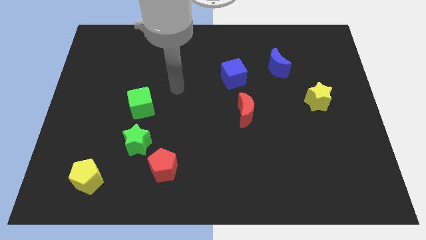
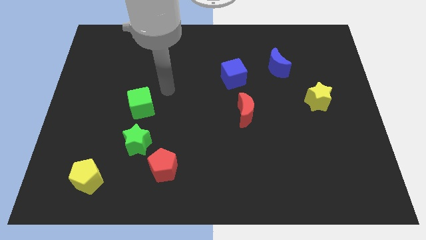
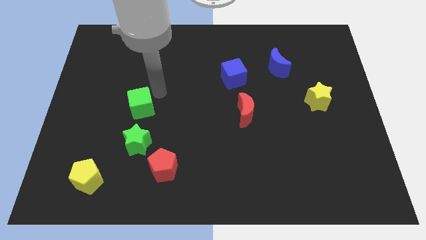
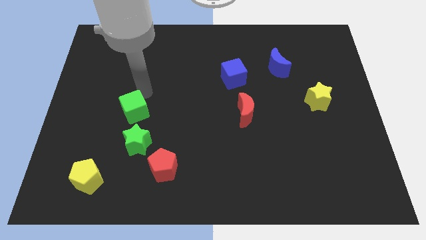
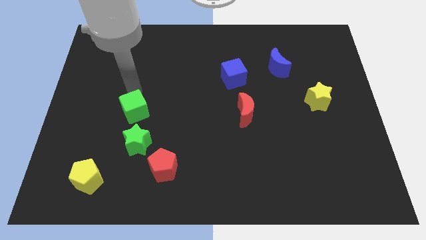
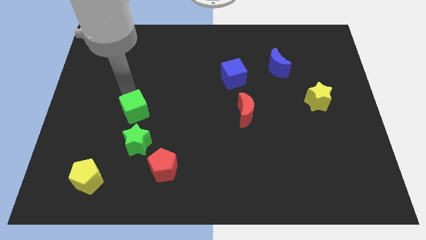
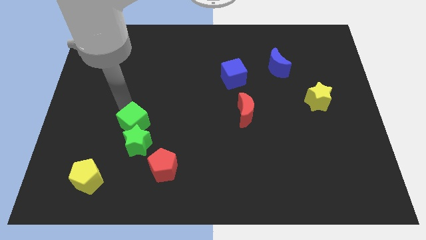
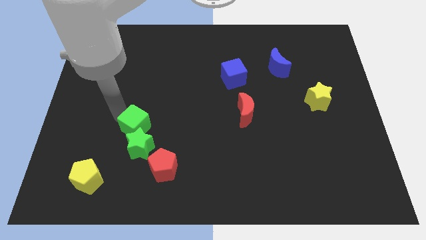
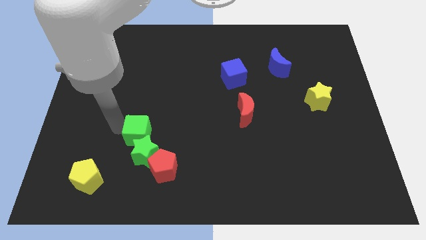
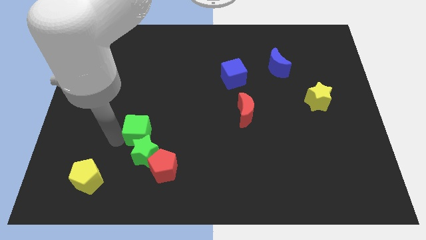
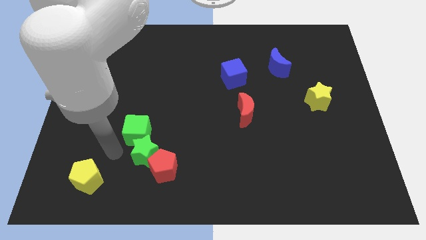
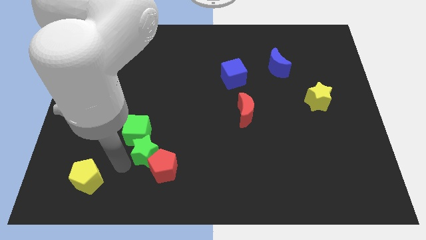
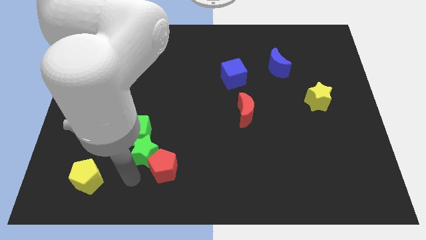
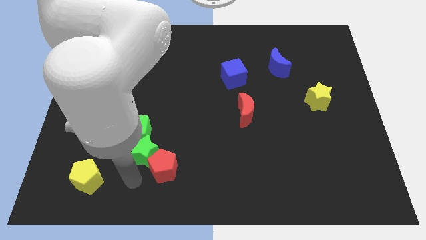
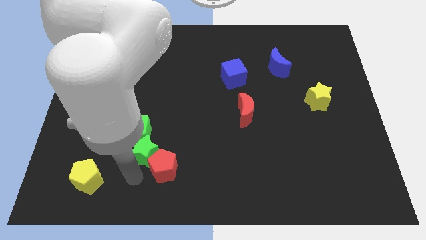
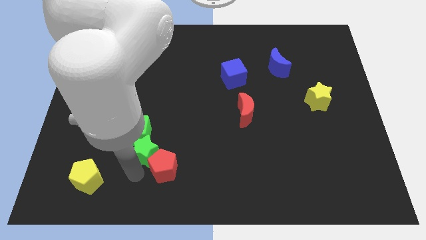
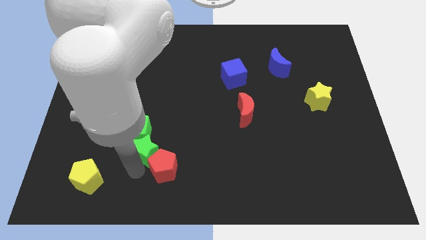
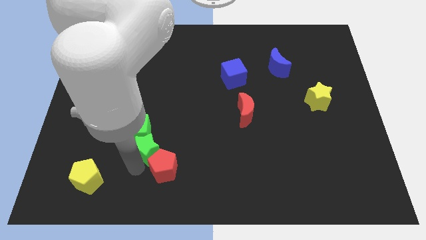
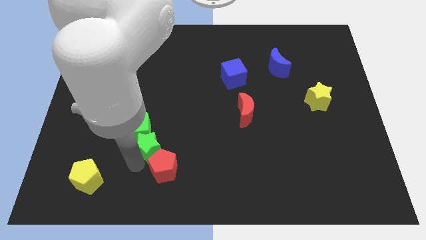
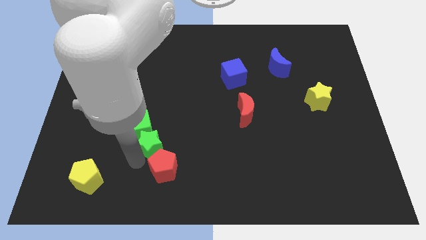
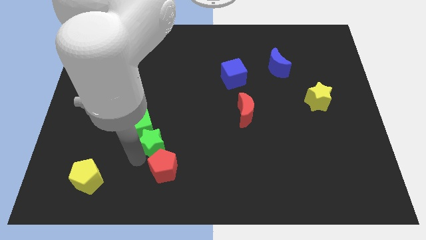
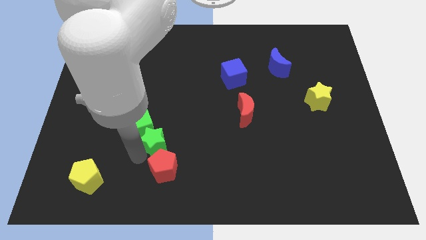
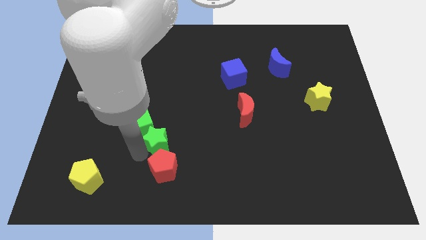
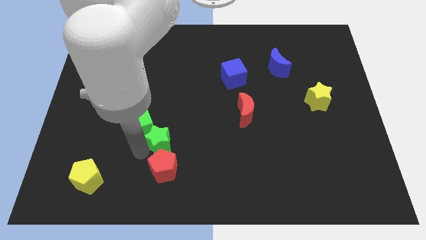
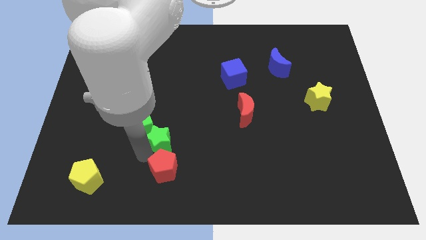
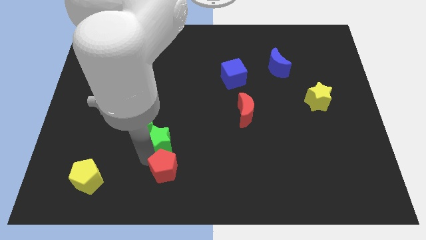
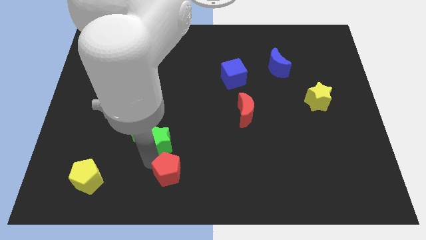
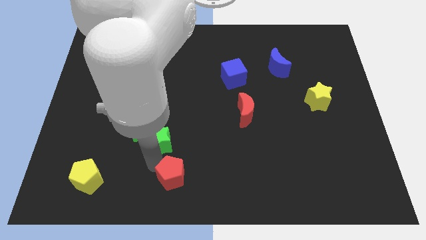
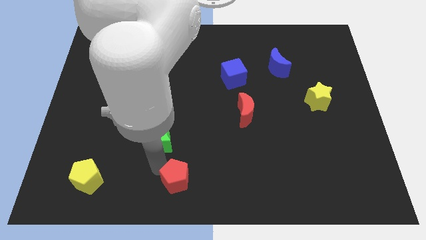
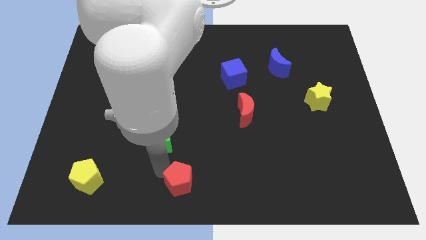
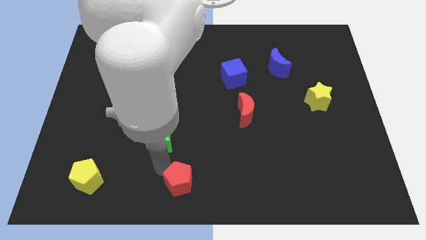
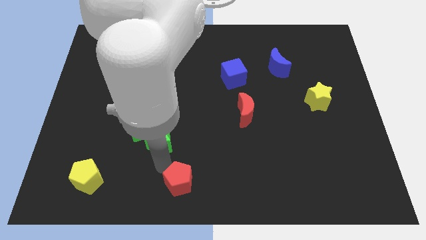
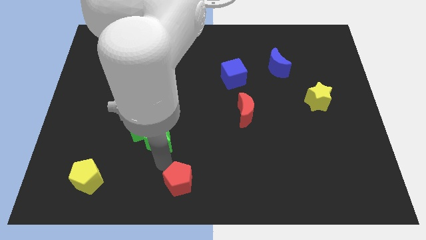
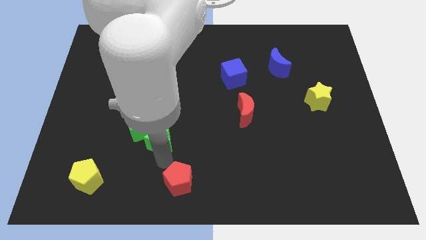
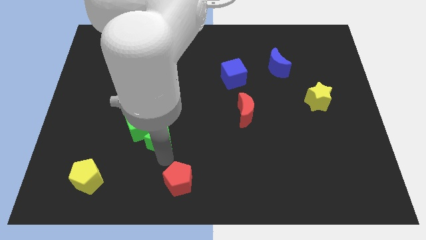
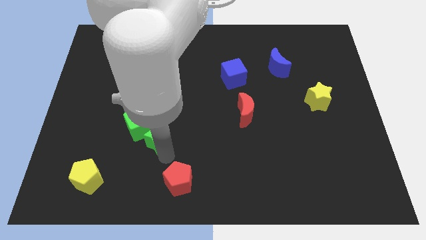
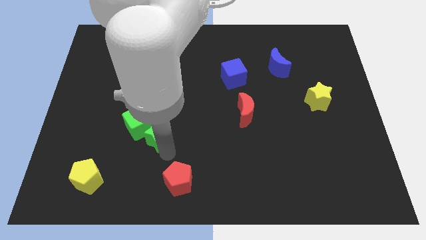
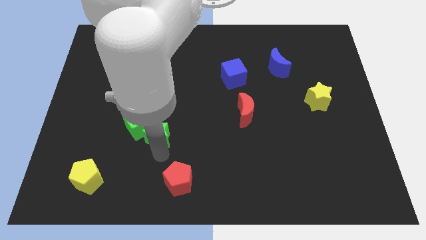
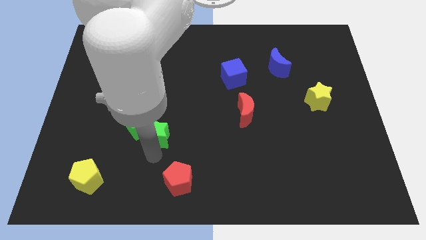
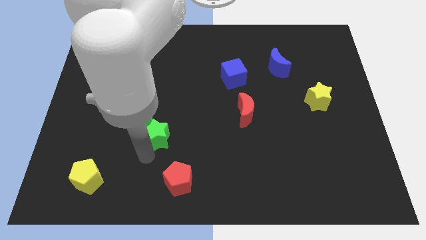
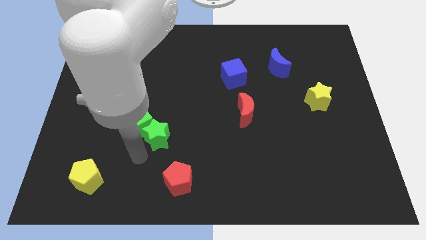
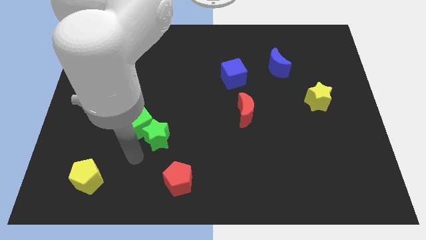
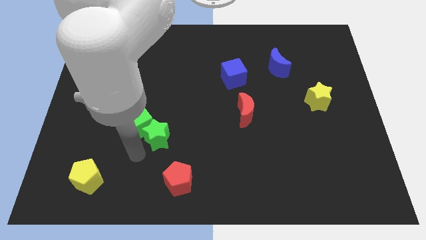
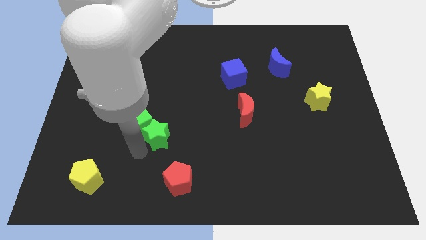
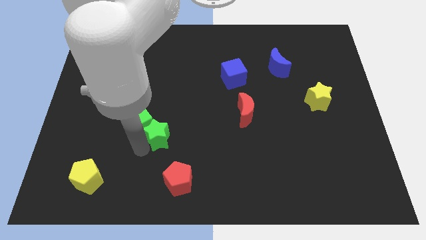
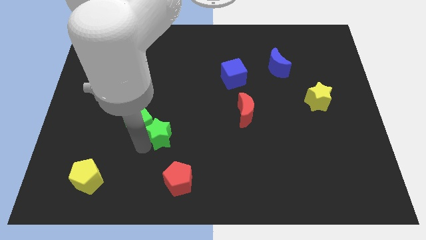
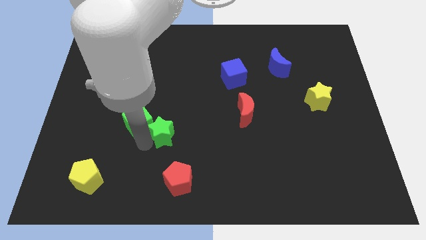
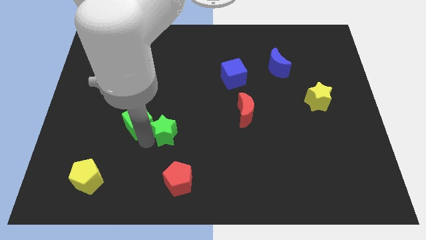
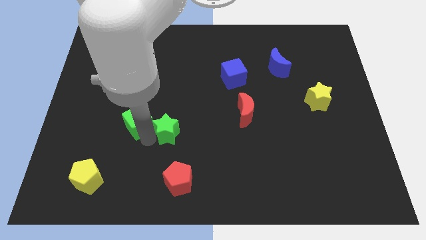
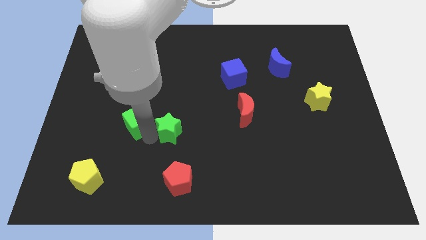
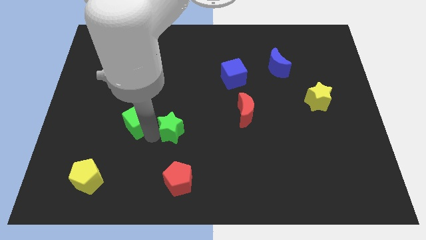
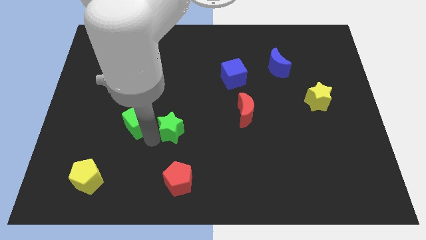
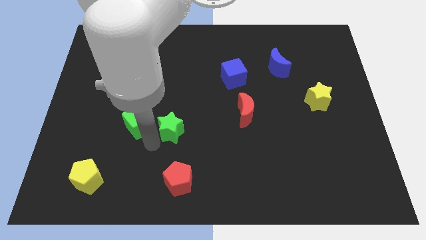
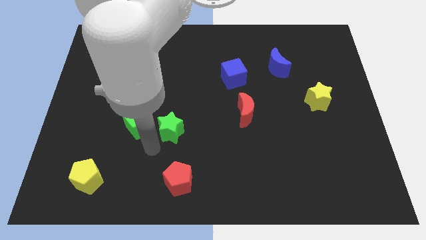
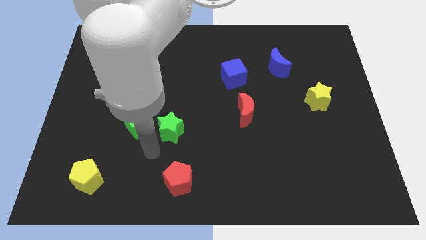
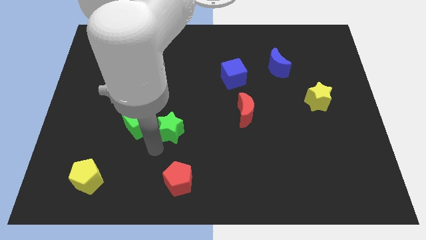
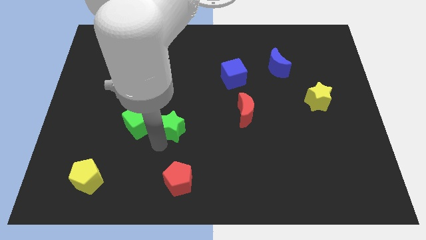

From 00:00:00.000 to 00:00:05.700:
push the green star to the middle of the board

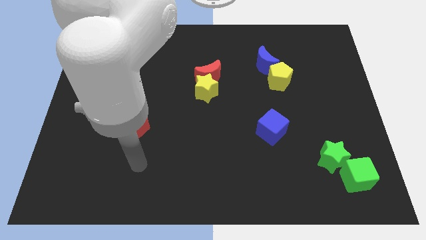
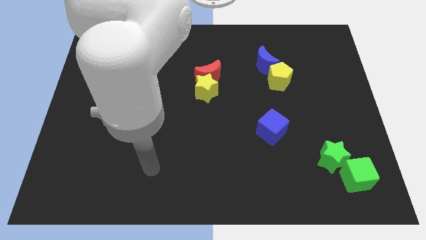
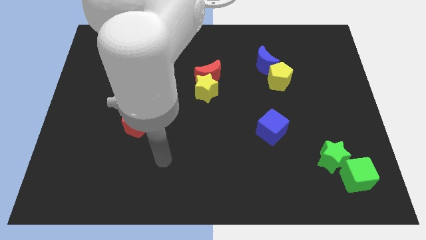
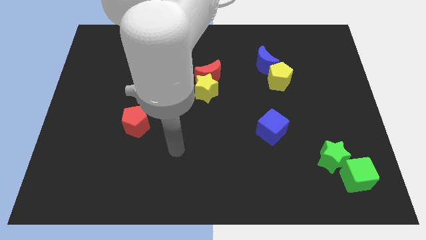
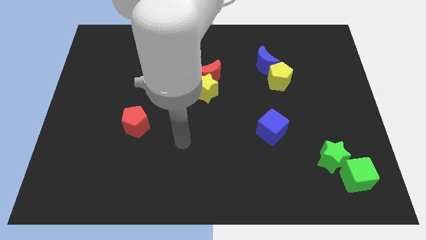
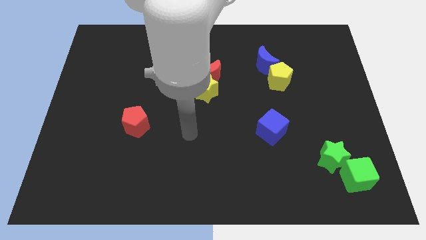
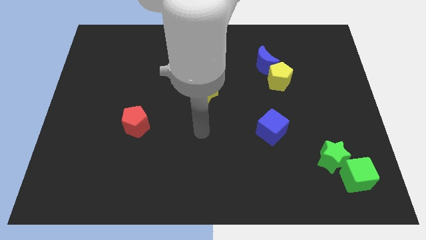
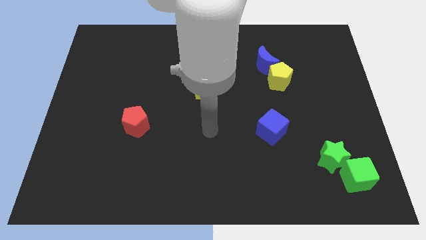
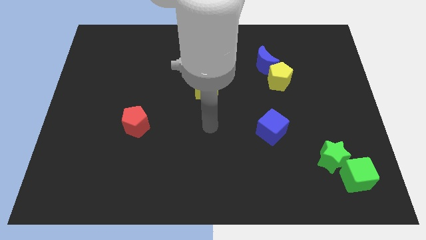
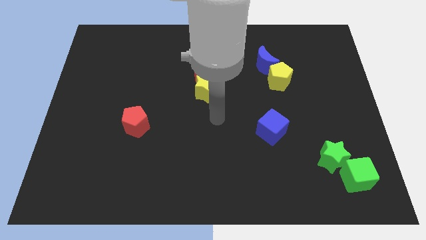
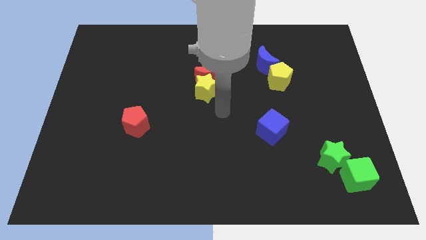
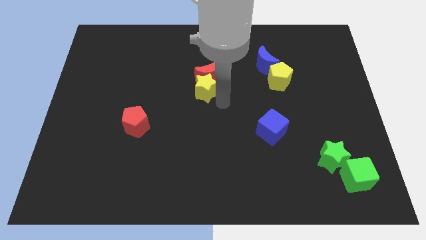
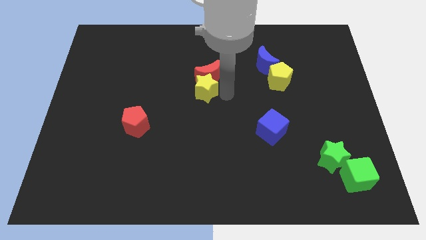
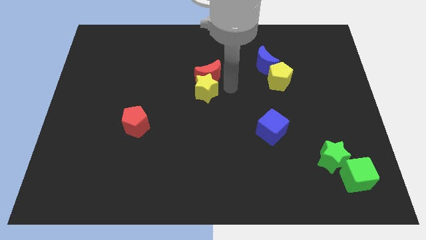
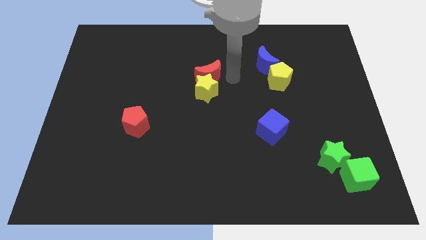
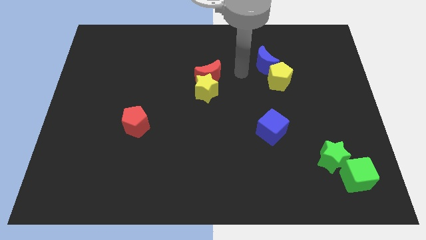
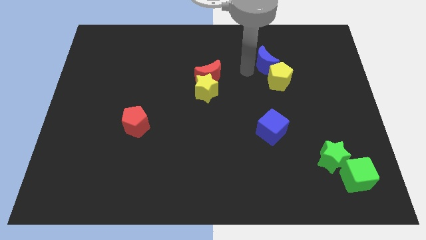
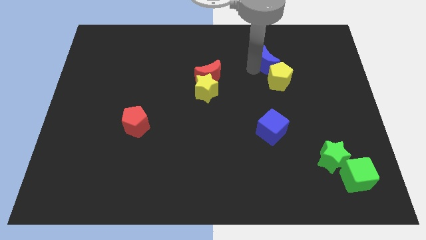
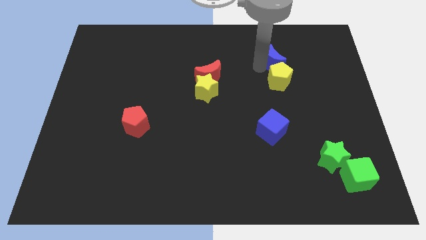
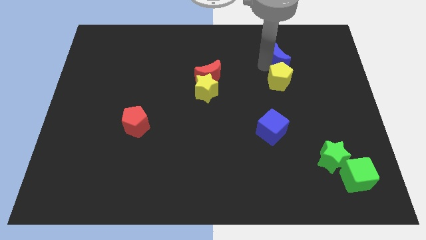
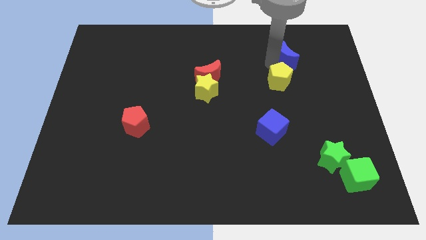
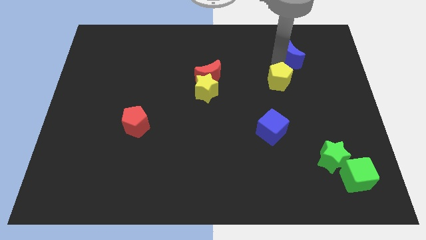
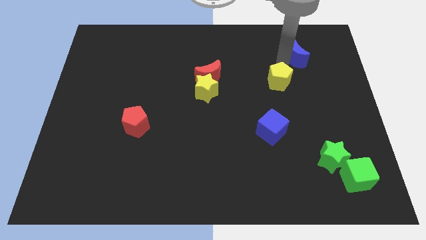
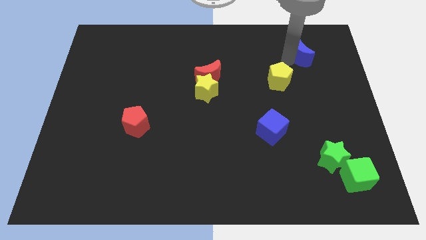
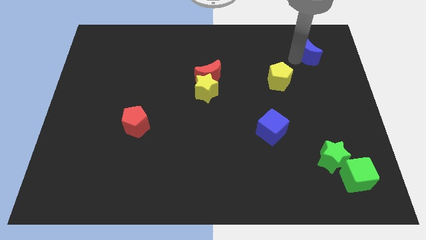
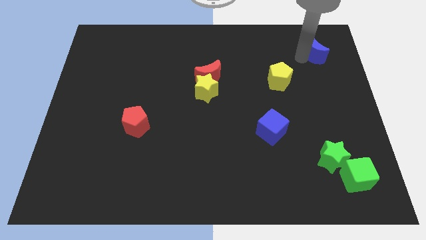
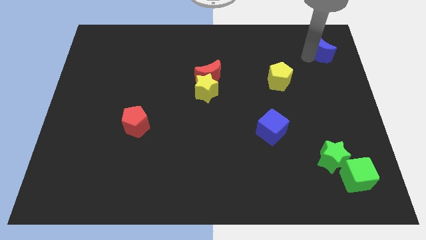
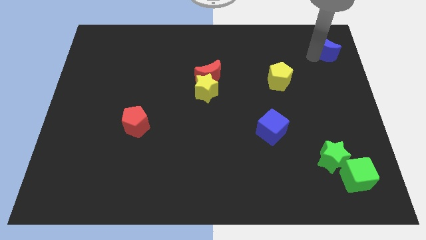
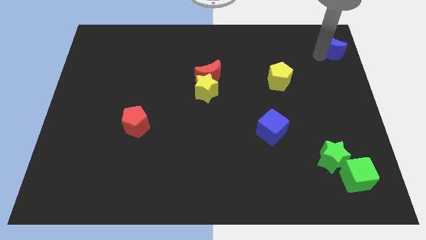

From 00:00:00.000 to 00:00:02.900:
put the blue moon to the top right corner
